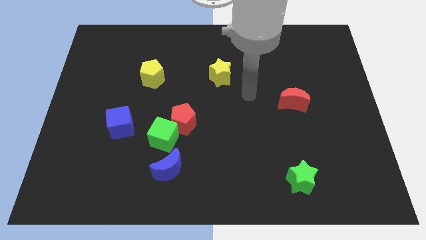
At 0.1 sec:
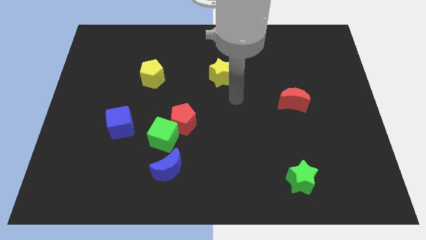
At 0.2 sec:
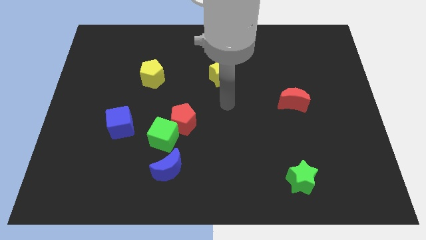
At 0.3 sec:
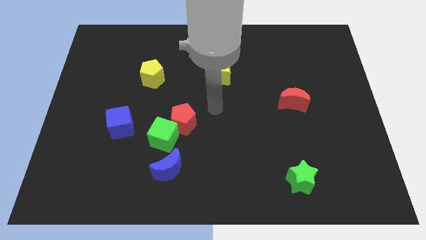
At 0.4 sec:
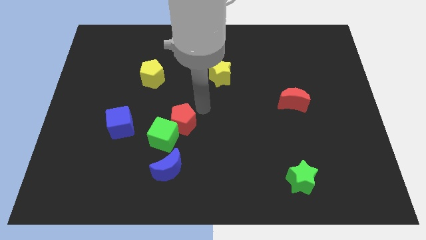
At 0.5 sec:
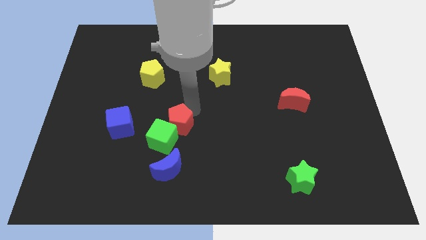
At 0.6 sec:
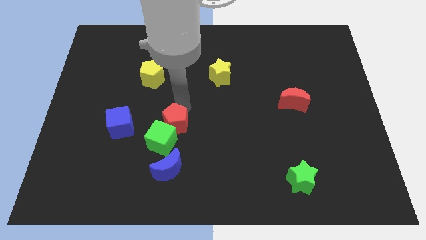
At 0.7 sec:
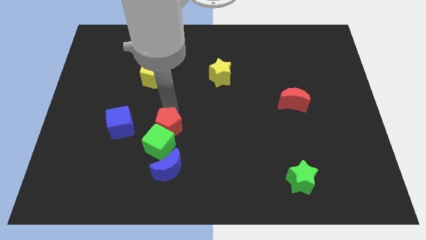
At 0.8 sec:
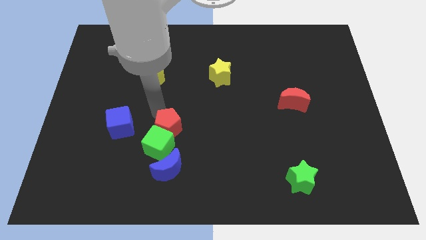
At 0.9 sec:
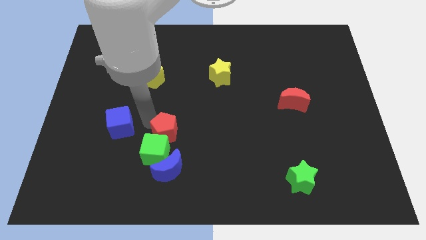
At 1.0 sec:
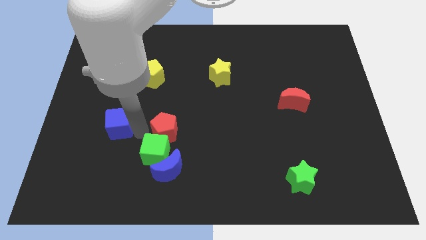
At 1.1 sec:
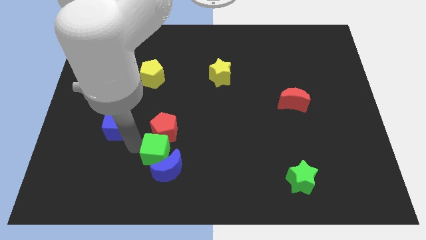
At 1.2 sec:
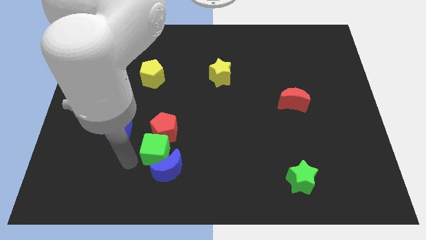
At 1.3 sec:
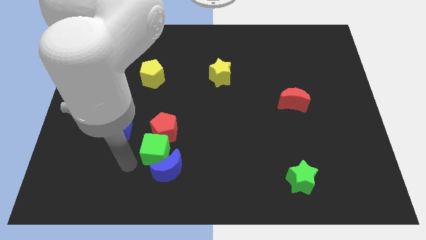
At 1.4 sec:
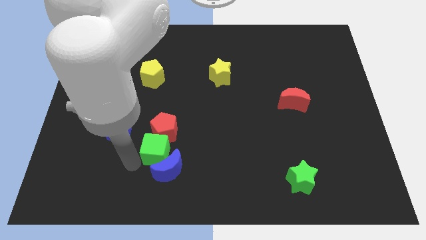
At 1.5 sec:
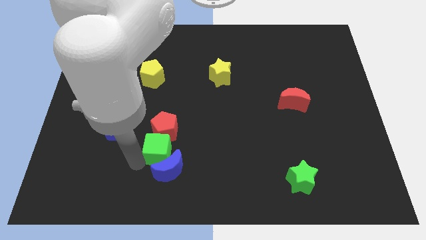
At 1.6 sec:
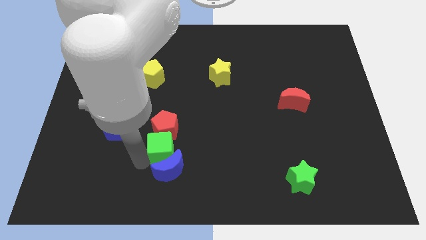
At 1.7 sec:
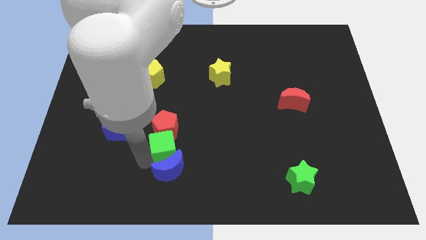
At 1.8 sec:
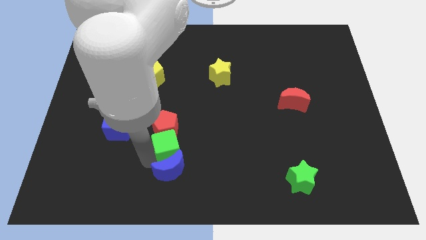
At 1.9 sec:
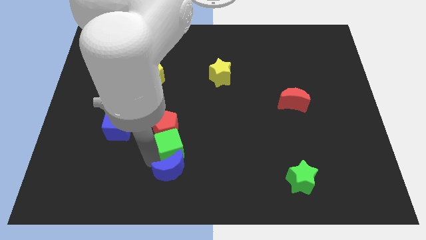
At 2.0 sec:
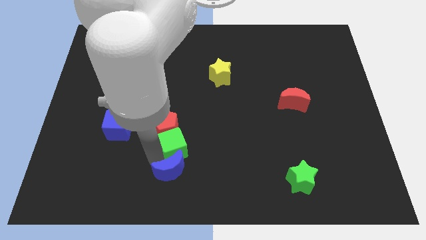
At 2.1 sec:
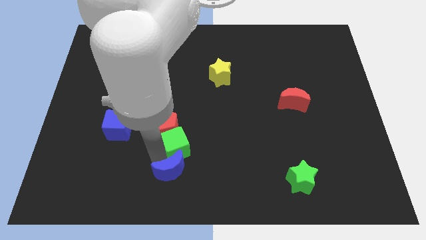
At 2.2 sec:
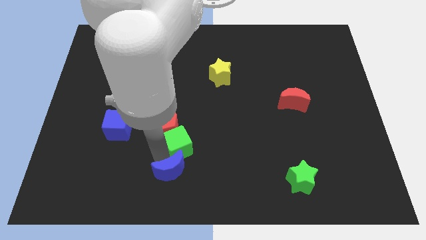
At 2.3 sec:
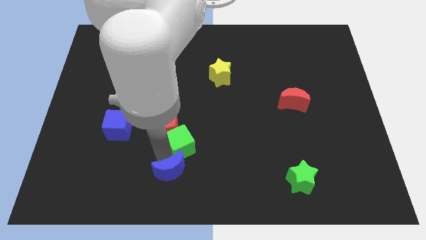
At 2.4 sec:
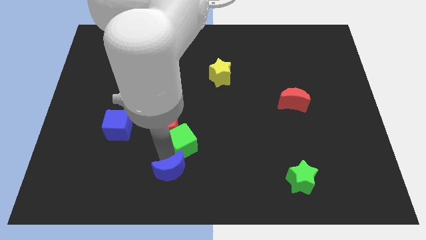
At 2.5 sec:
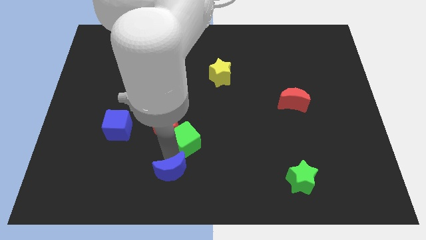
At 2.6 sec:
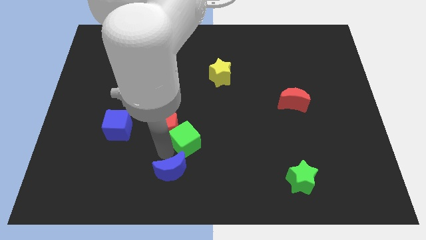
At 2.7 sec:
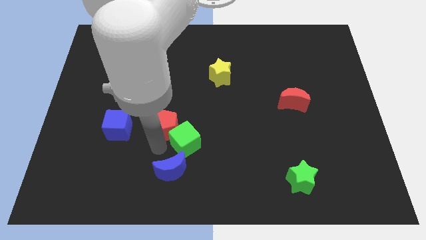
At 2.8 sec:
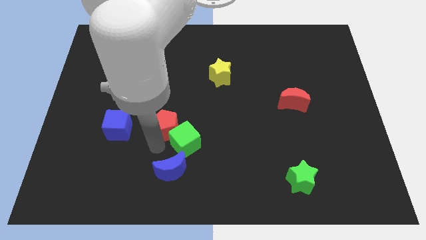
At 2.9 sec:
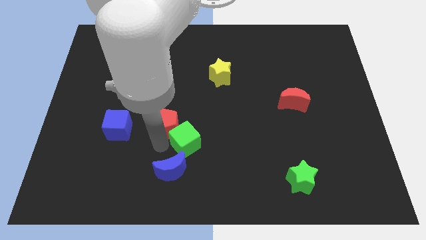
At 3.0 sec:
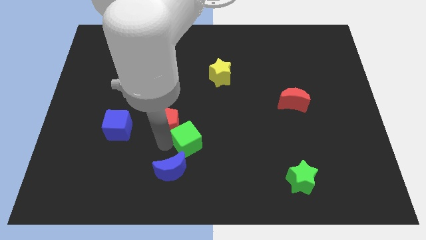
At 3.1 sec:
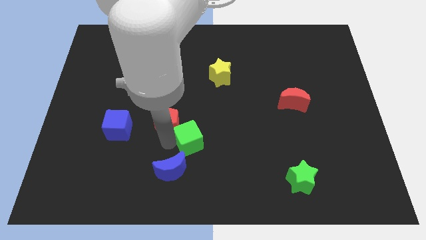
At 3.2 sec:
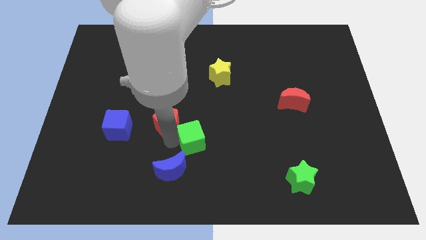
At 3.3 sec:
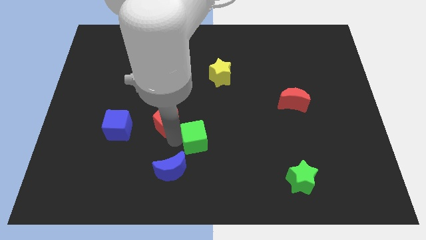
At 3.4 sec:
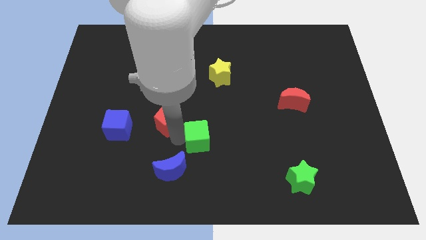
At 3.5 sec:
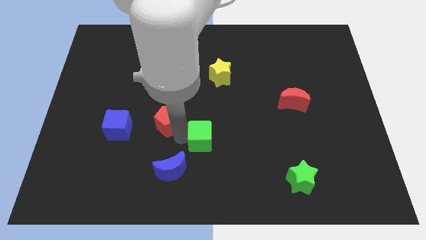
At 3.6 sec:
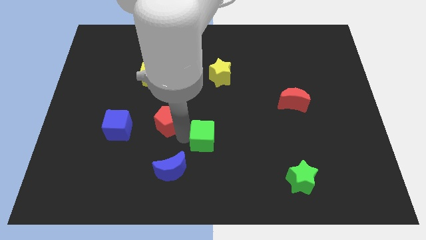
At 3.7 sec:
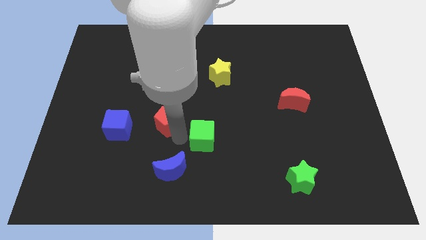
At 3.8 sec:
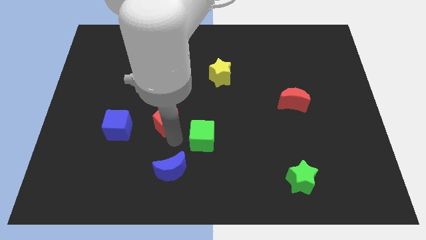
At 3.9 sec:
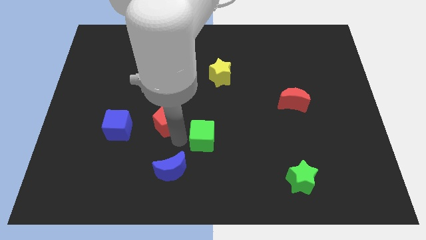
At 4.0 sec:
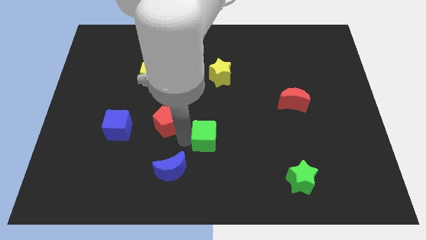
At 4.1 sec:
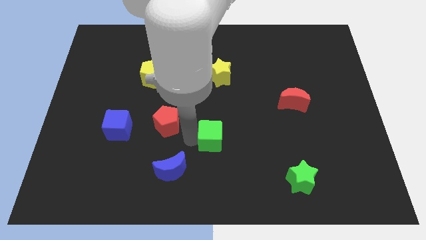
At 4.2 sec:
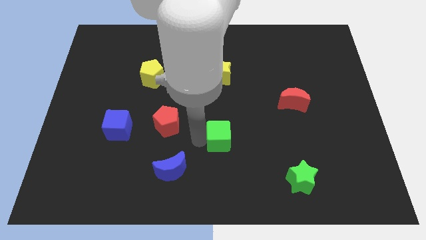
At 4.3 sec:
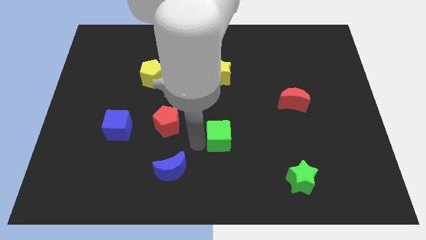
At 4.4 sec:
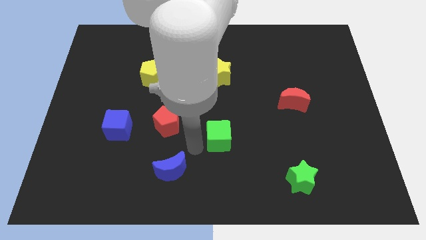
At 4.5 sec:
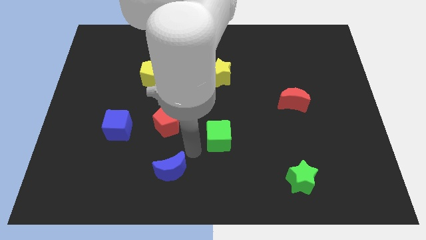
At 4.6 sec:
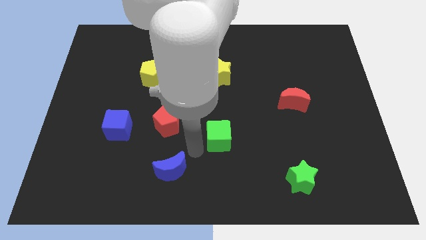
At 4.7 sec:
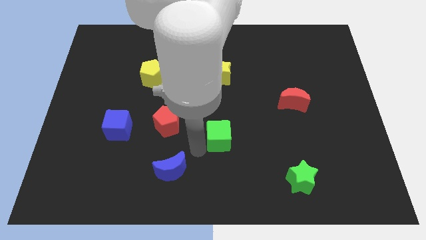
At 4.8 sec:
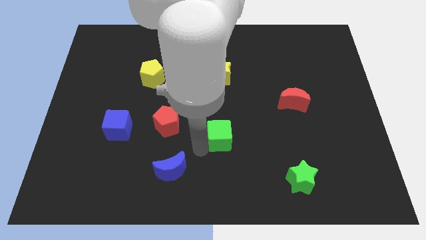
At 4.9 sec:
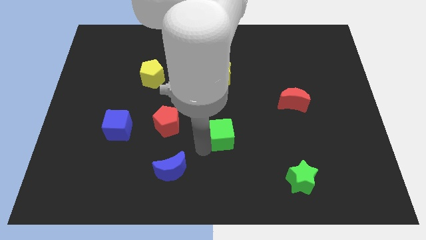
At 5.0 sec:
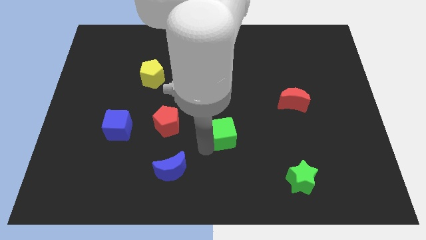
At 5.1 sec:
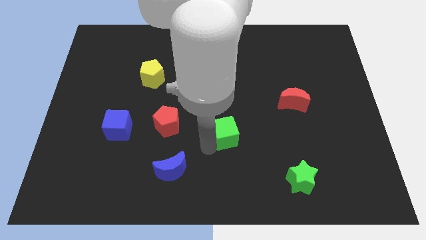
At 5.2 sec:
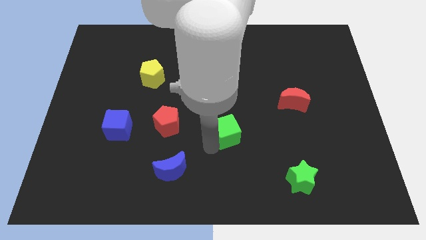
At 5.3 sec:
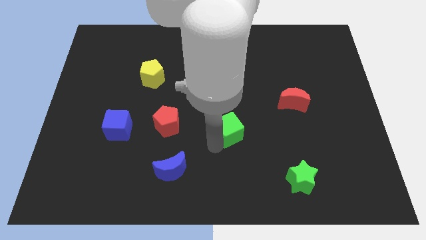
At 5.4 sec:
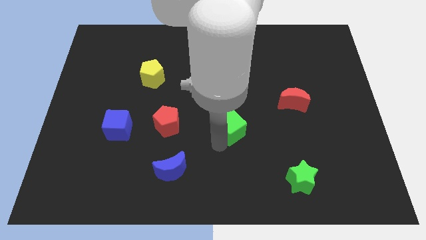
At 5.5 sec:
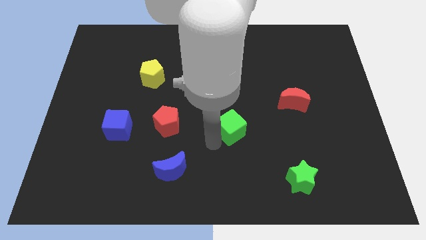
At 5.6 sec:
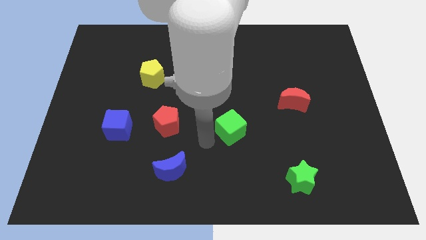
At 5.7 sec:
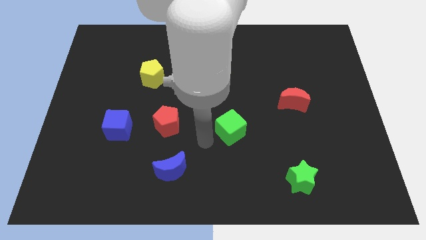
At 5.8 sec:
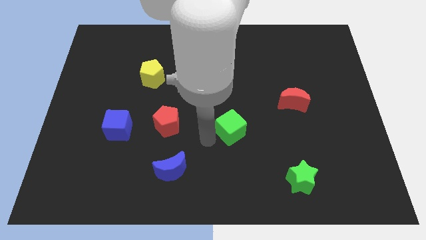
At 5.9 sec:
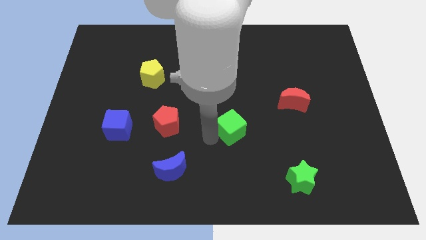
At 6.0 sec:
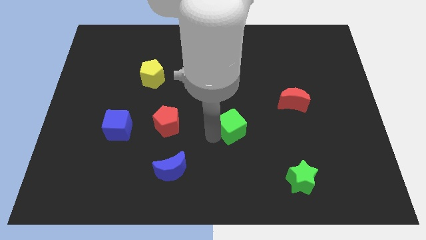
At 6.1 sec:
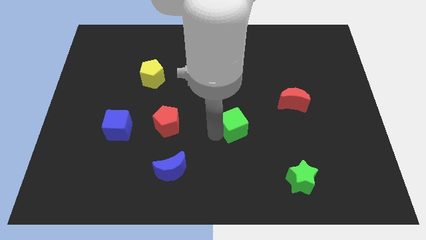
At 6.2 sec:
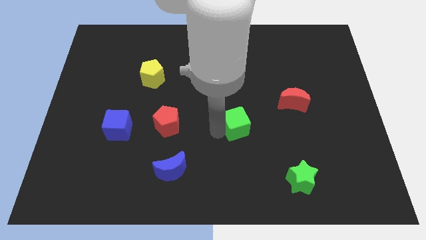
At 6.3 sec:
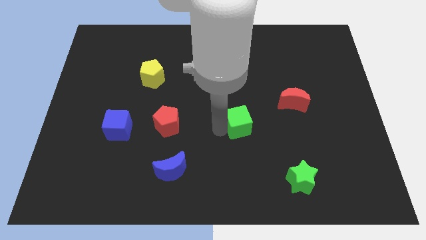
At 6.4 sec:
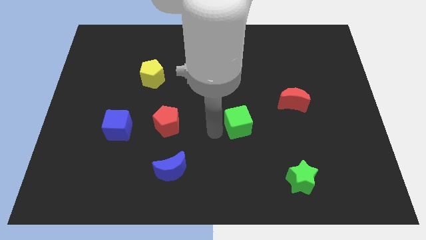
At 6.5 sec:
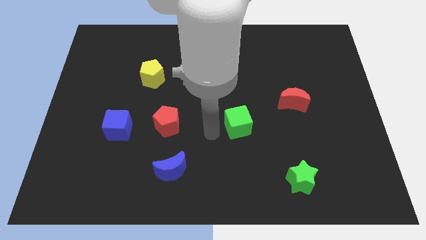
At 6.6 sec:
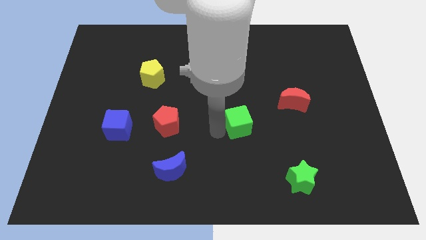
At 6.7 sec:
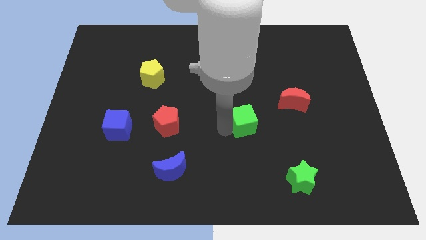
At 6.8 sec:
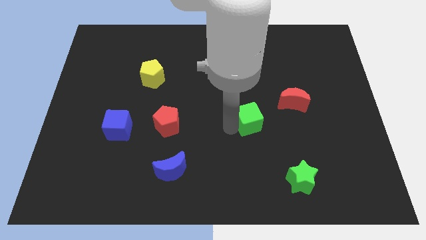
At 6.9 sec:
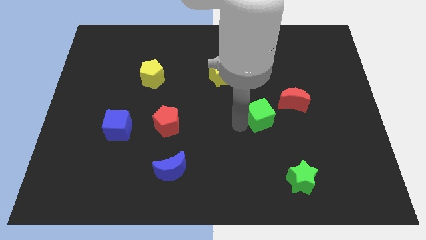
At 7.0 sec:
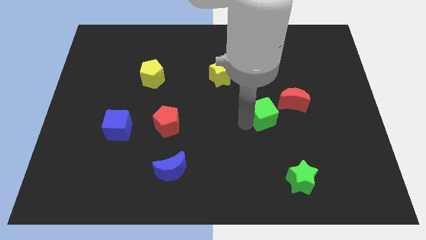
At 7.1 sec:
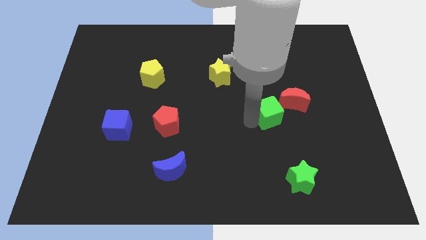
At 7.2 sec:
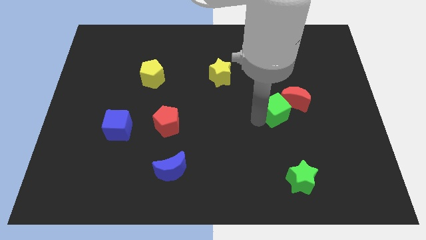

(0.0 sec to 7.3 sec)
push the green cube towards the red moon
